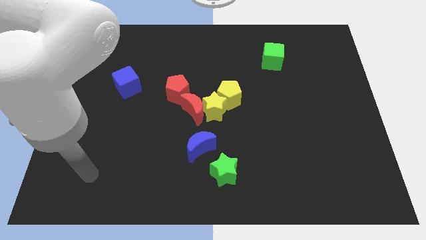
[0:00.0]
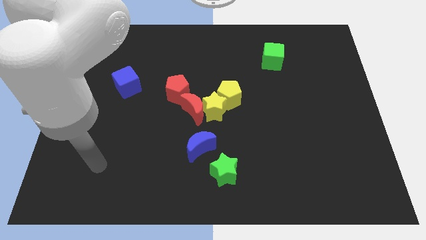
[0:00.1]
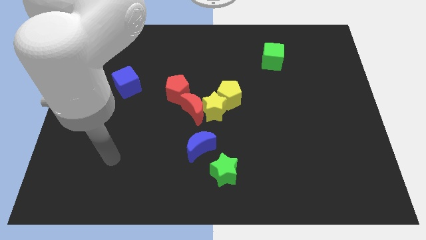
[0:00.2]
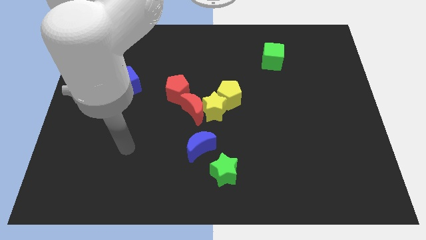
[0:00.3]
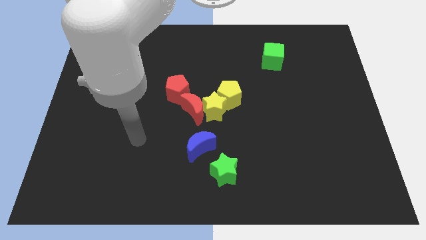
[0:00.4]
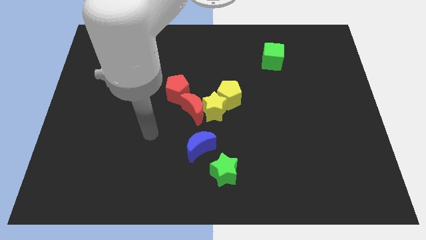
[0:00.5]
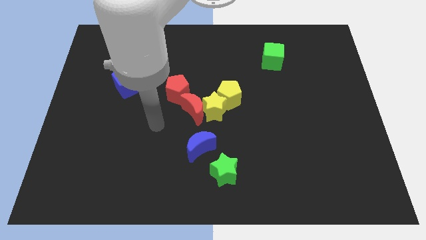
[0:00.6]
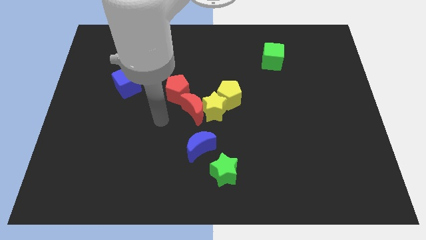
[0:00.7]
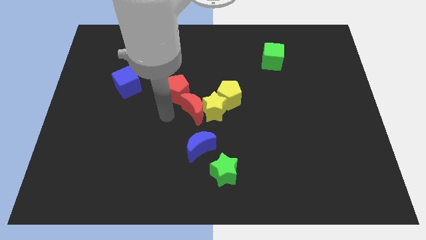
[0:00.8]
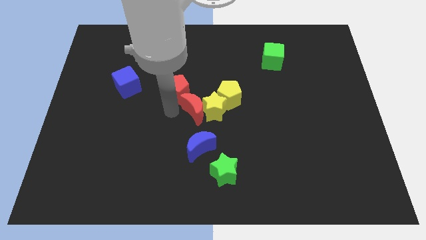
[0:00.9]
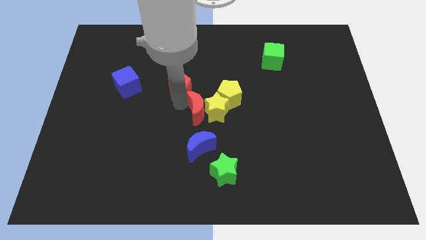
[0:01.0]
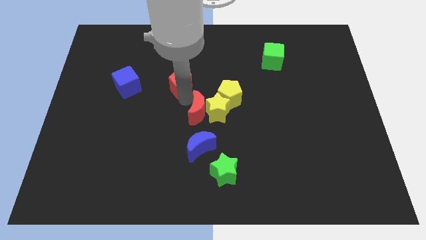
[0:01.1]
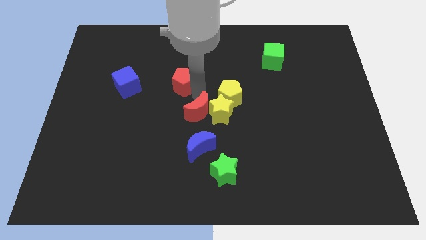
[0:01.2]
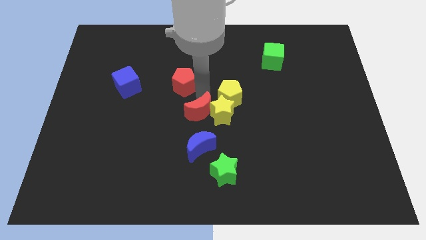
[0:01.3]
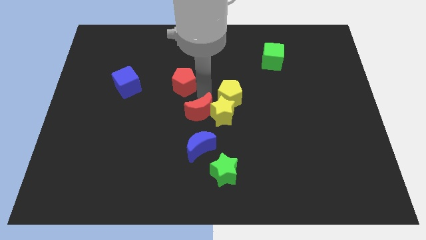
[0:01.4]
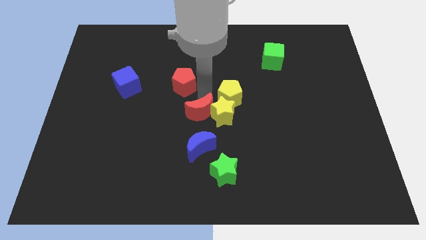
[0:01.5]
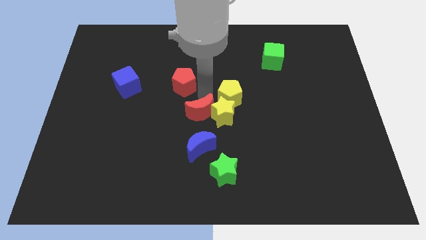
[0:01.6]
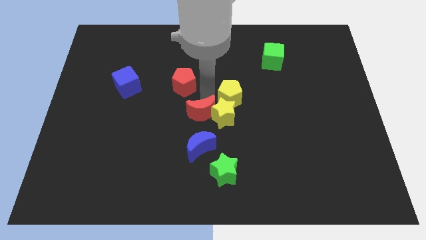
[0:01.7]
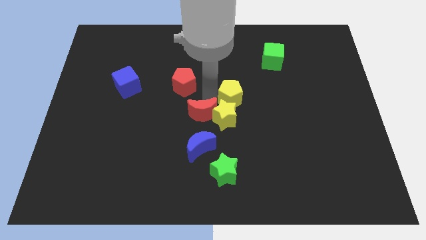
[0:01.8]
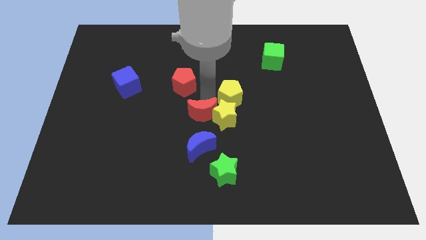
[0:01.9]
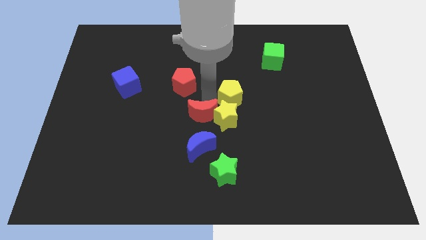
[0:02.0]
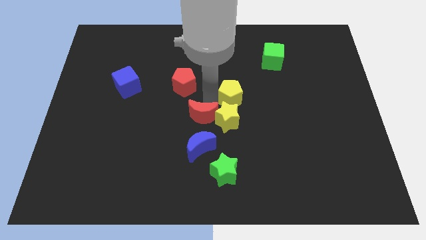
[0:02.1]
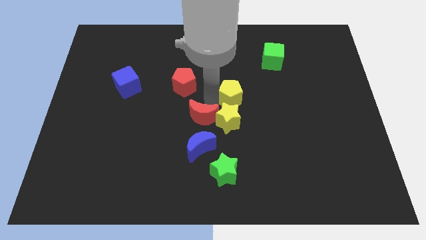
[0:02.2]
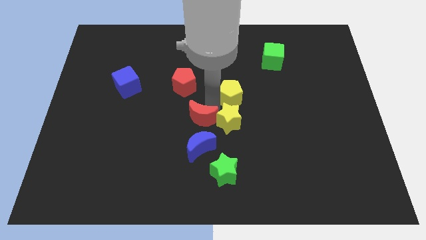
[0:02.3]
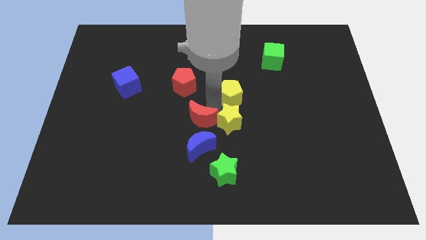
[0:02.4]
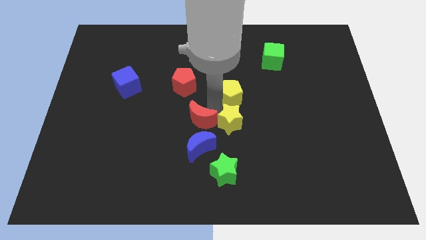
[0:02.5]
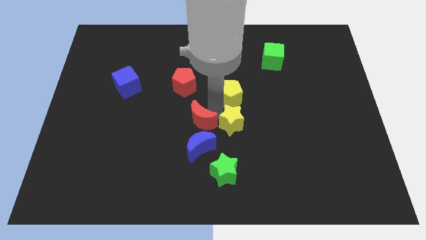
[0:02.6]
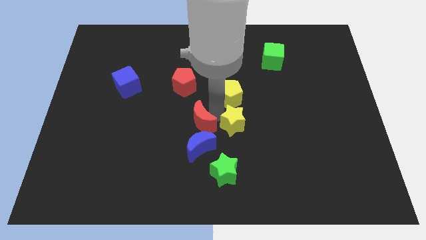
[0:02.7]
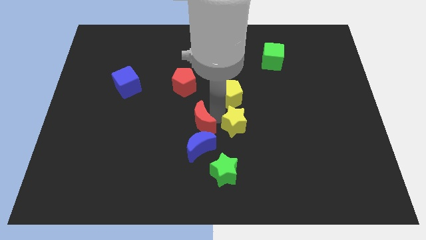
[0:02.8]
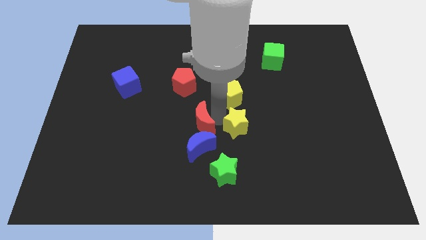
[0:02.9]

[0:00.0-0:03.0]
separate the yellow star from the clump

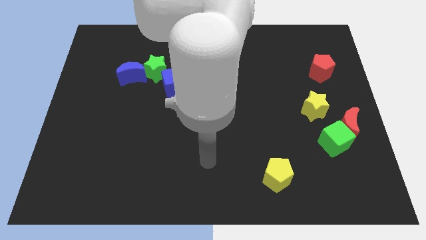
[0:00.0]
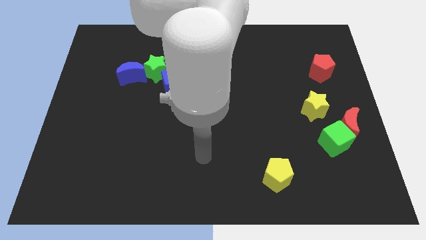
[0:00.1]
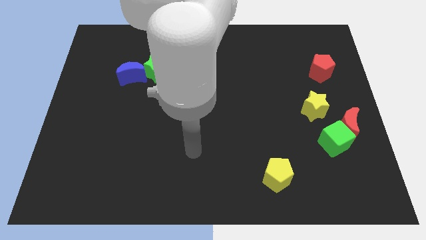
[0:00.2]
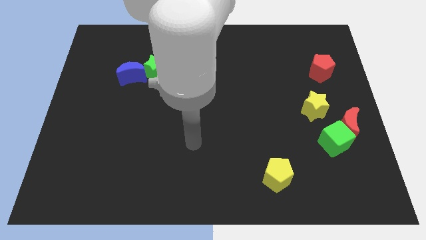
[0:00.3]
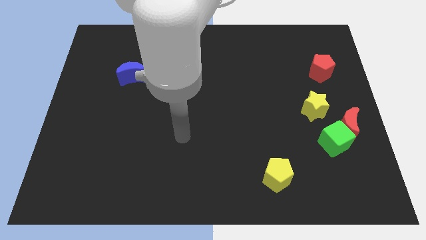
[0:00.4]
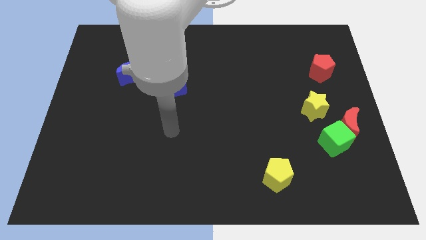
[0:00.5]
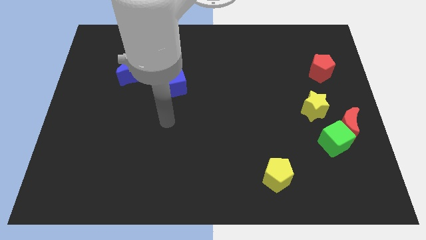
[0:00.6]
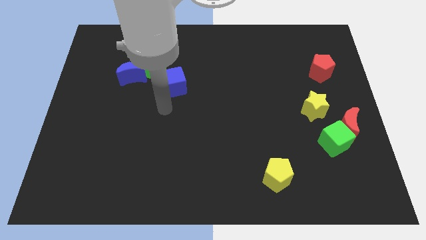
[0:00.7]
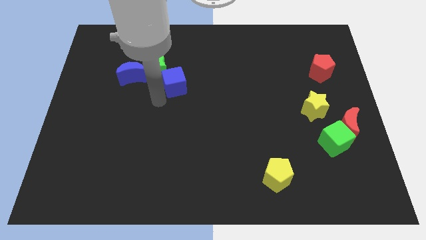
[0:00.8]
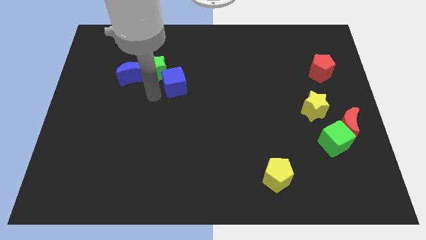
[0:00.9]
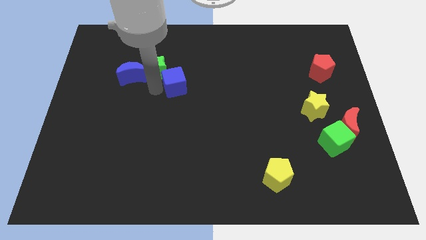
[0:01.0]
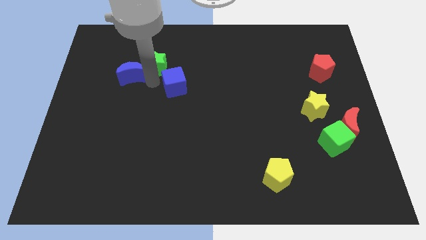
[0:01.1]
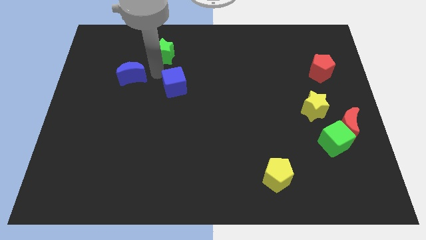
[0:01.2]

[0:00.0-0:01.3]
separate the blue moon from the green star

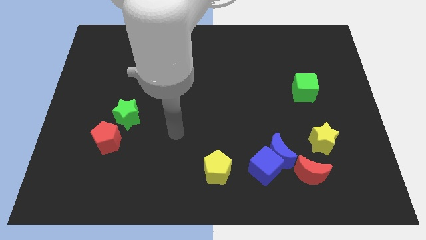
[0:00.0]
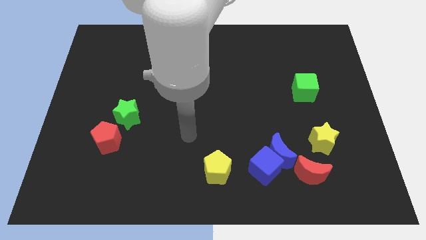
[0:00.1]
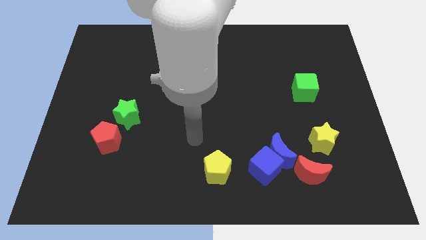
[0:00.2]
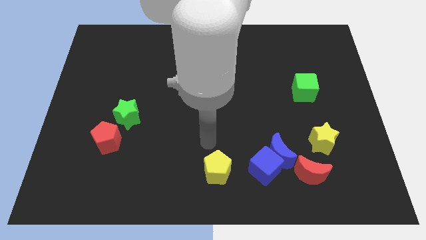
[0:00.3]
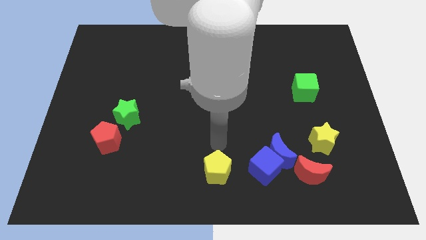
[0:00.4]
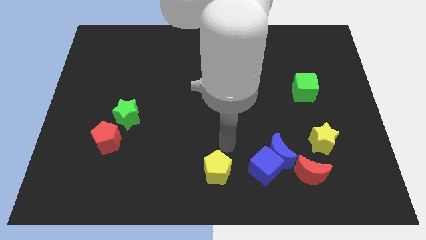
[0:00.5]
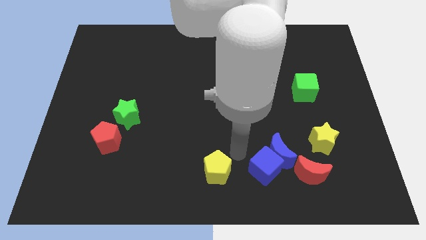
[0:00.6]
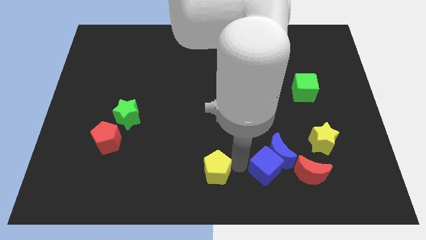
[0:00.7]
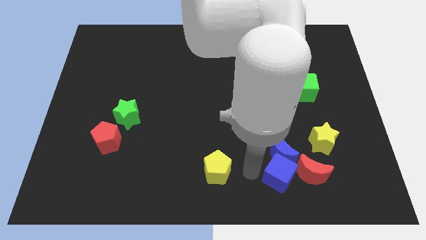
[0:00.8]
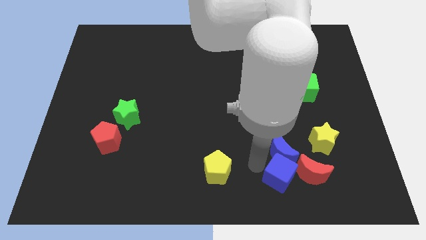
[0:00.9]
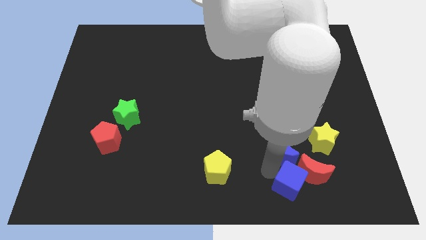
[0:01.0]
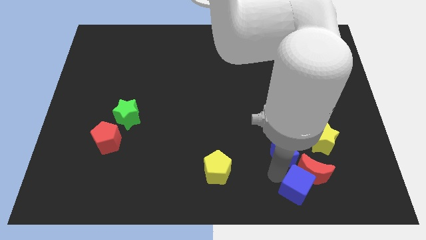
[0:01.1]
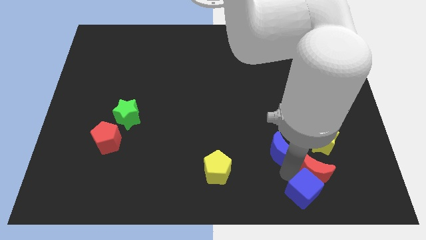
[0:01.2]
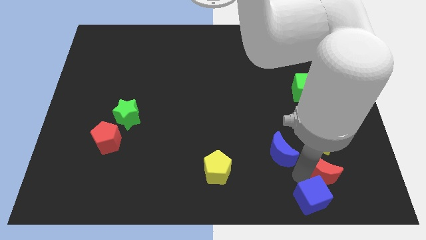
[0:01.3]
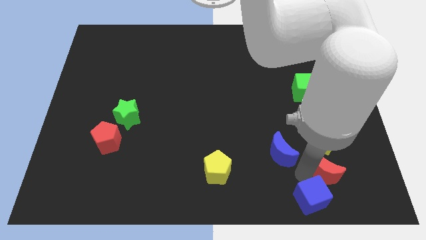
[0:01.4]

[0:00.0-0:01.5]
move the blue moon away from the blue cube and red moon

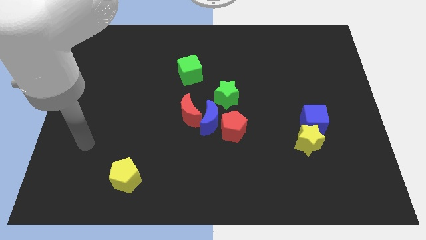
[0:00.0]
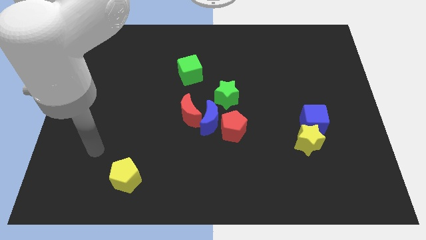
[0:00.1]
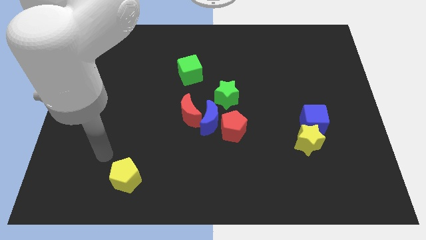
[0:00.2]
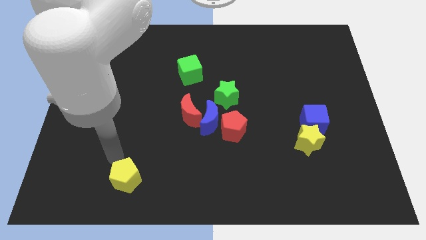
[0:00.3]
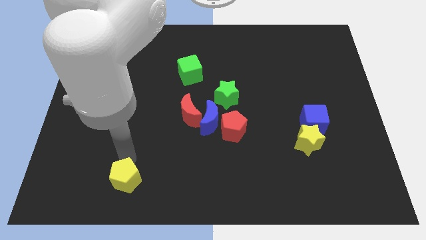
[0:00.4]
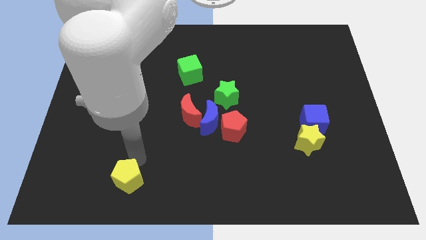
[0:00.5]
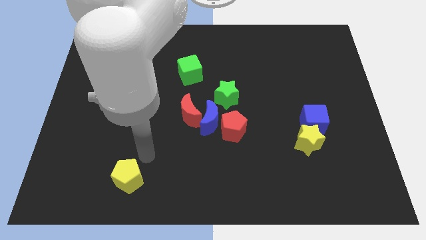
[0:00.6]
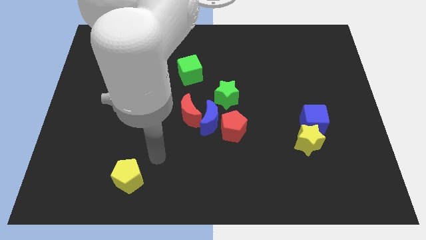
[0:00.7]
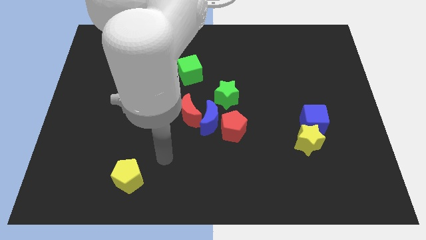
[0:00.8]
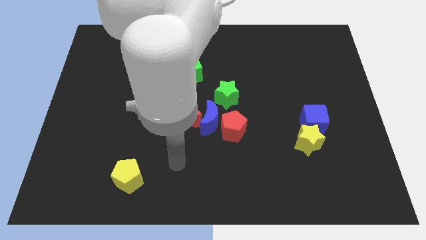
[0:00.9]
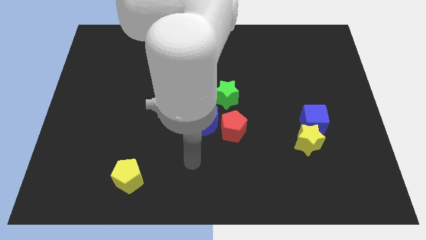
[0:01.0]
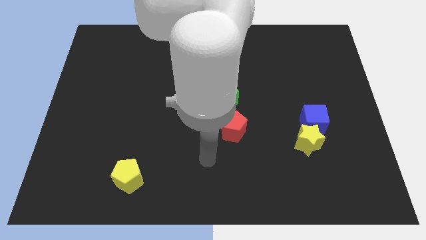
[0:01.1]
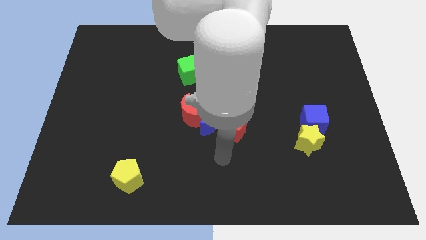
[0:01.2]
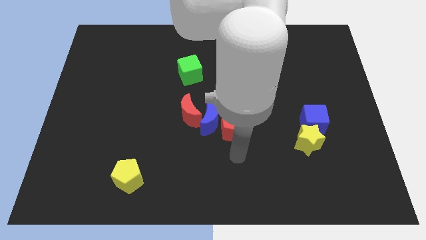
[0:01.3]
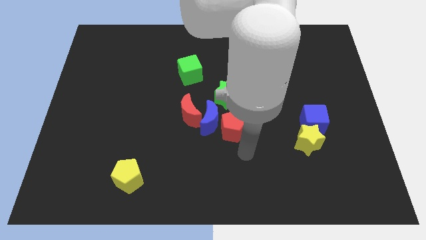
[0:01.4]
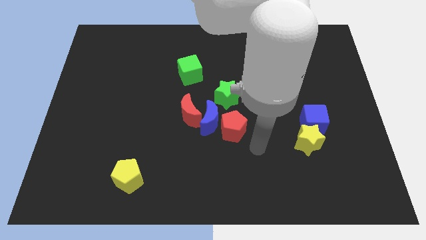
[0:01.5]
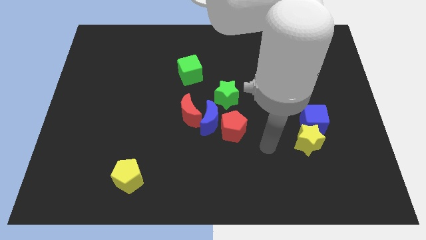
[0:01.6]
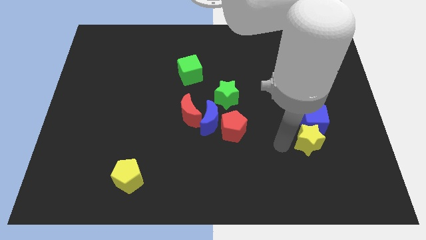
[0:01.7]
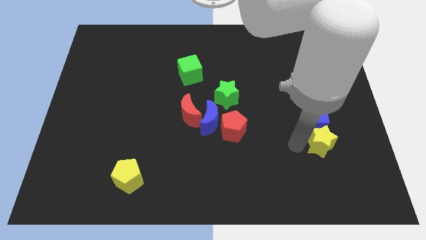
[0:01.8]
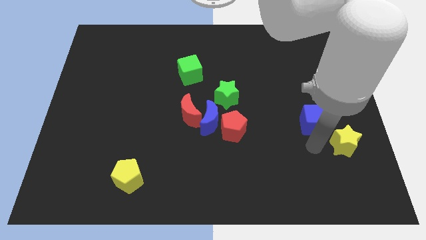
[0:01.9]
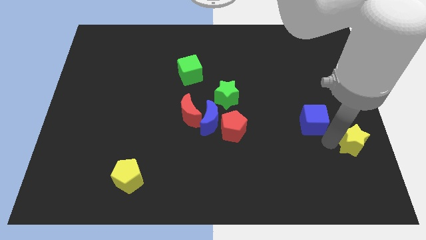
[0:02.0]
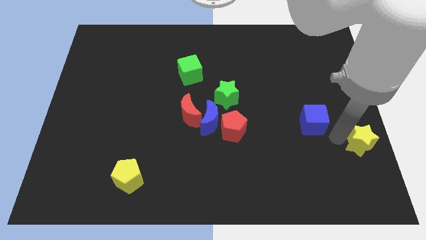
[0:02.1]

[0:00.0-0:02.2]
move the blue cube away from the yellow star

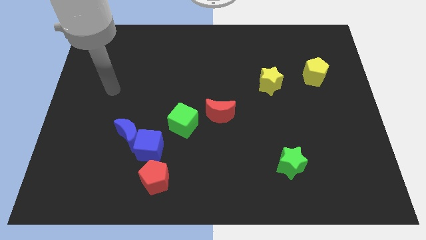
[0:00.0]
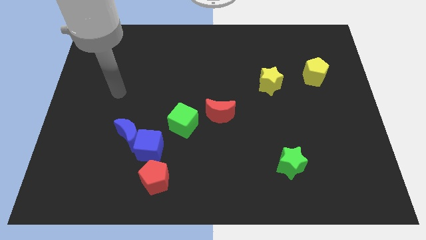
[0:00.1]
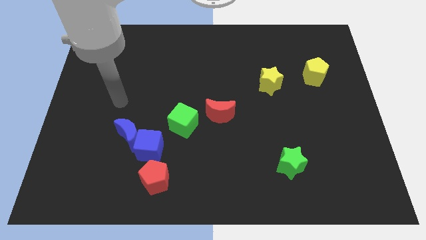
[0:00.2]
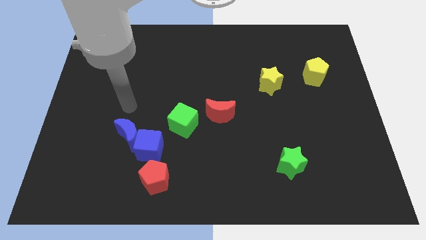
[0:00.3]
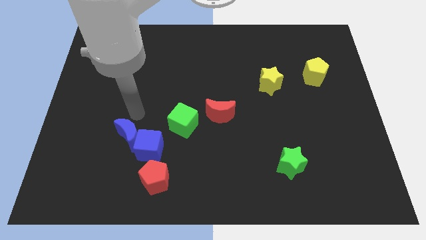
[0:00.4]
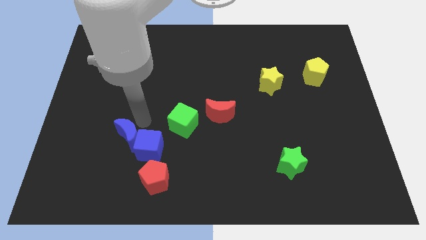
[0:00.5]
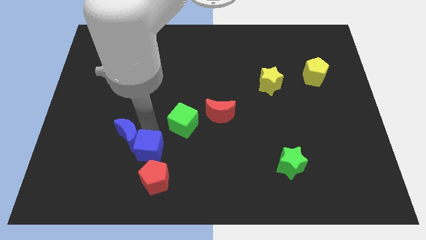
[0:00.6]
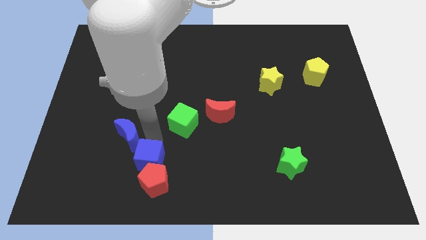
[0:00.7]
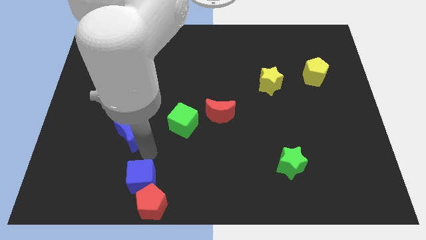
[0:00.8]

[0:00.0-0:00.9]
pull the blue moon apart from the blue cube

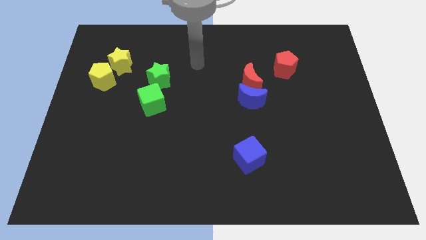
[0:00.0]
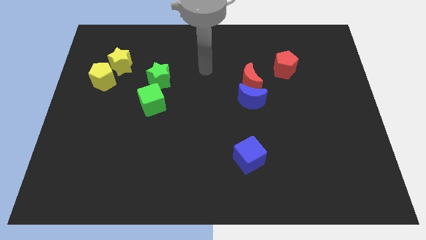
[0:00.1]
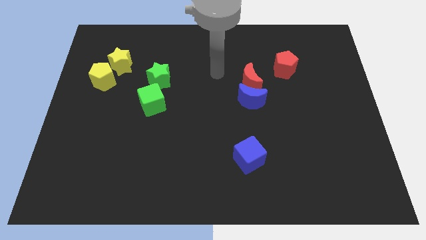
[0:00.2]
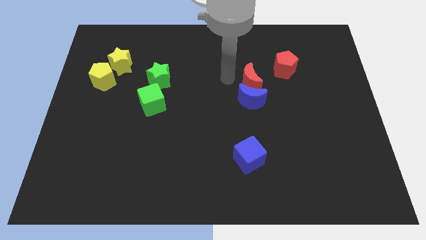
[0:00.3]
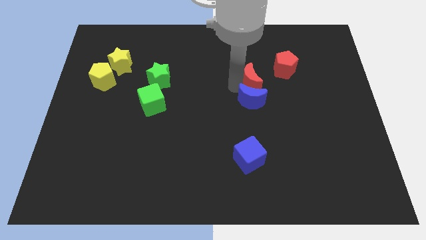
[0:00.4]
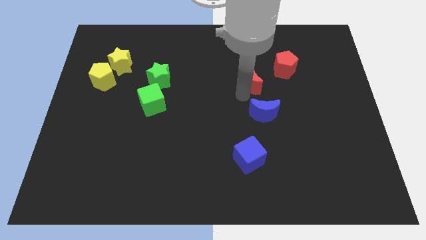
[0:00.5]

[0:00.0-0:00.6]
separate the red moon from the blue moon
